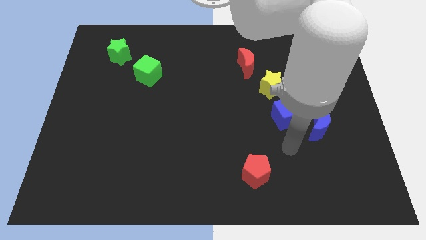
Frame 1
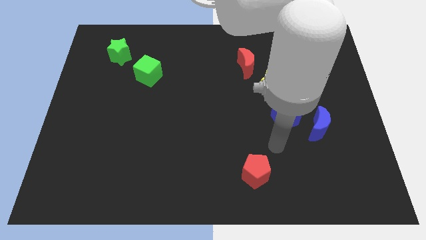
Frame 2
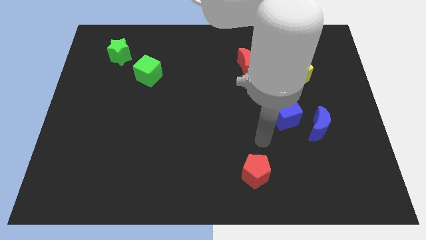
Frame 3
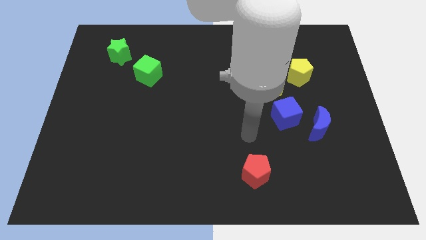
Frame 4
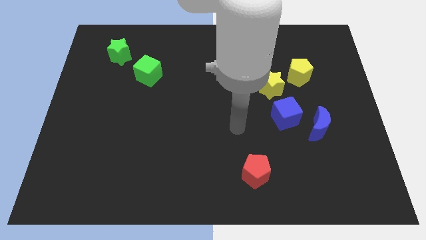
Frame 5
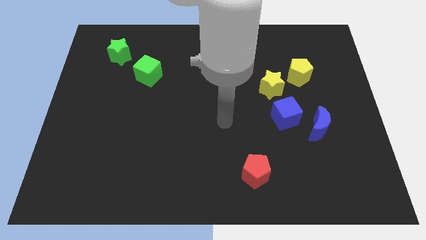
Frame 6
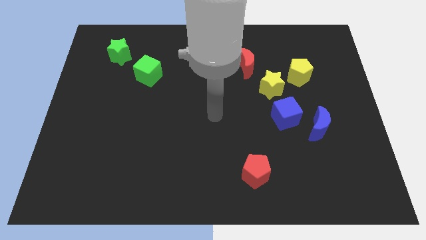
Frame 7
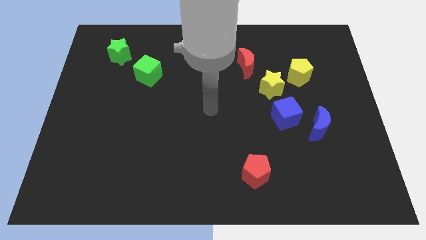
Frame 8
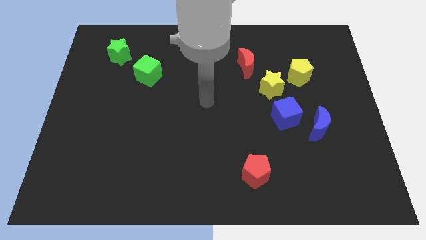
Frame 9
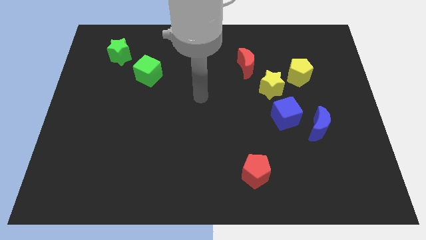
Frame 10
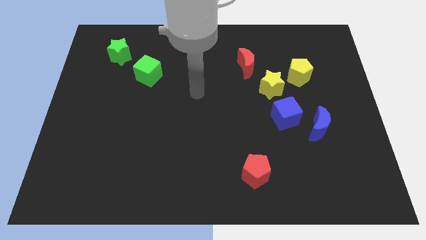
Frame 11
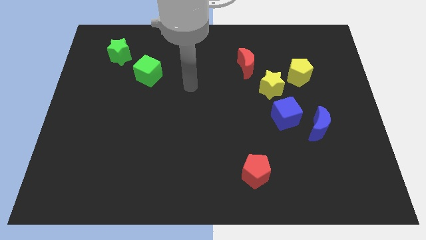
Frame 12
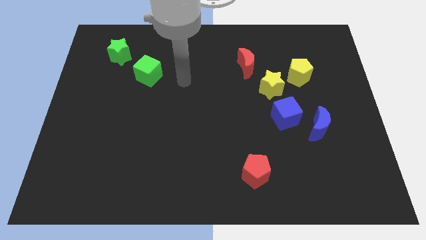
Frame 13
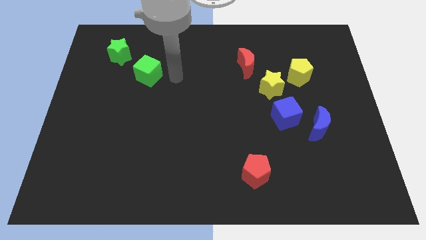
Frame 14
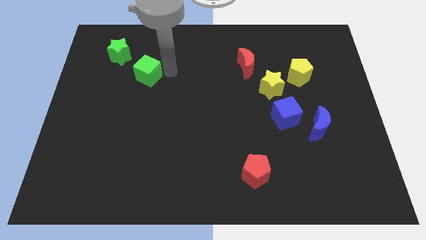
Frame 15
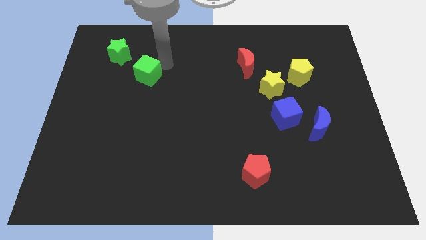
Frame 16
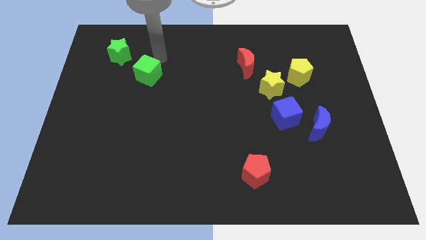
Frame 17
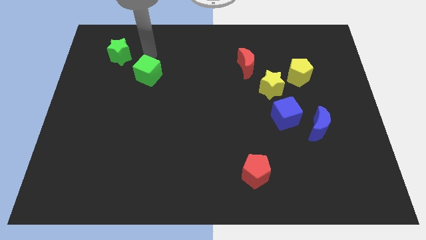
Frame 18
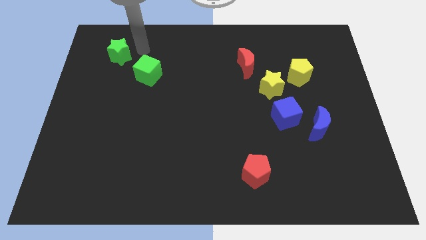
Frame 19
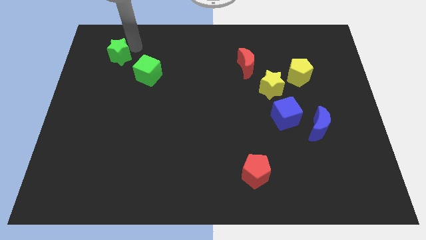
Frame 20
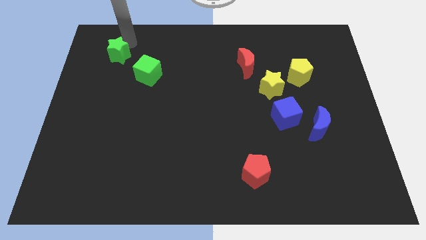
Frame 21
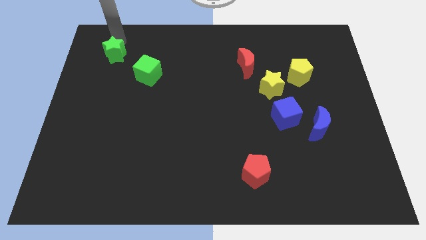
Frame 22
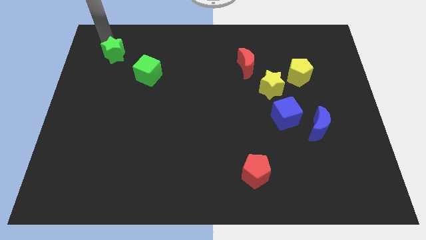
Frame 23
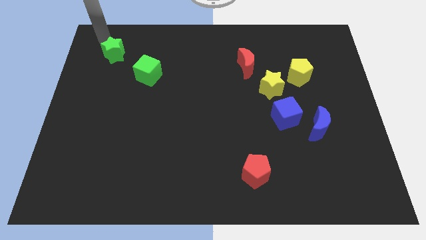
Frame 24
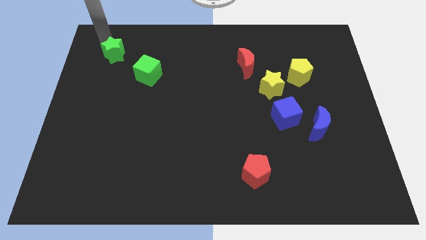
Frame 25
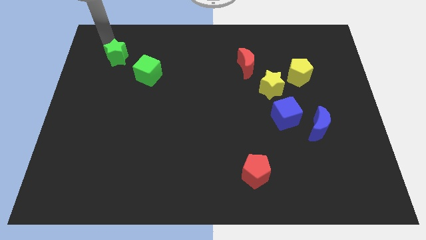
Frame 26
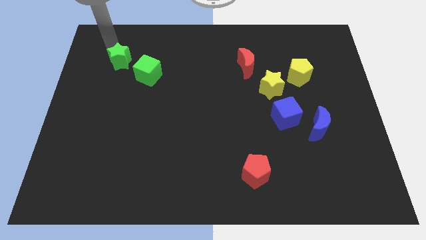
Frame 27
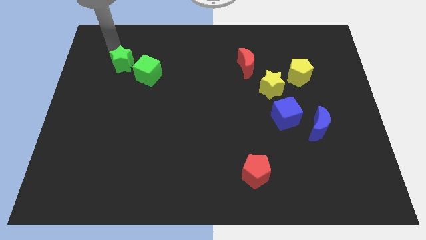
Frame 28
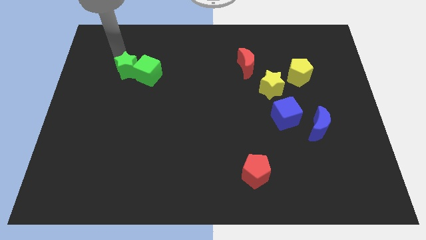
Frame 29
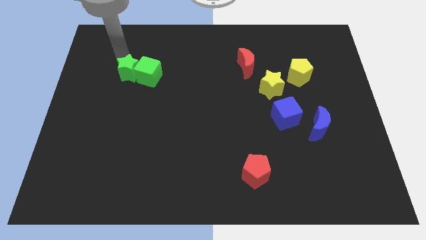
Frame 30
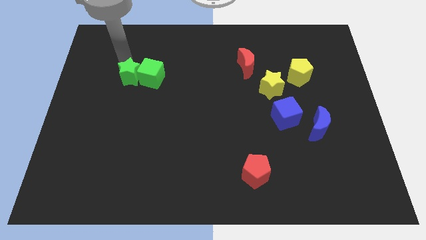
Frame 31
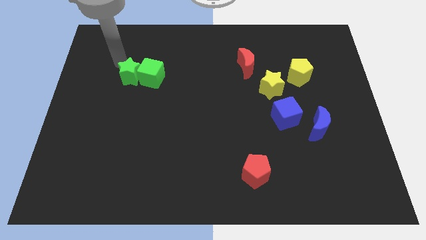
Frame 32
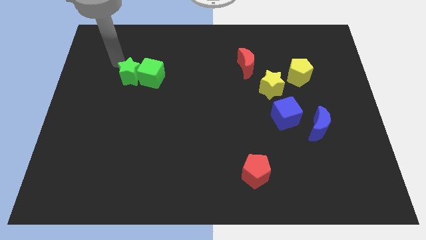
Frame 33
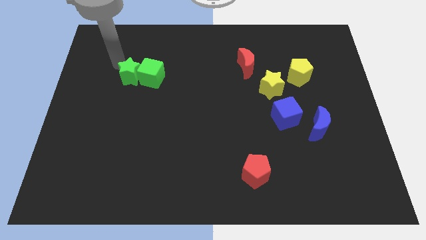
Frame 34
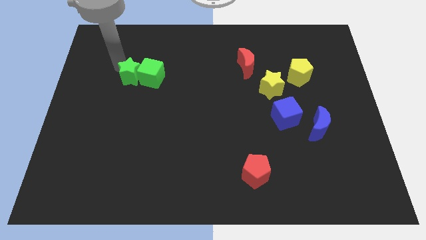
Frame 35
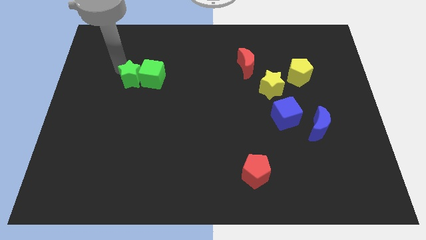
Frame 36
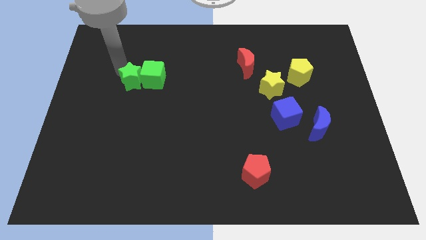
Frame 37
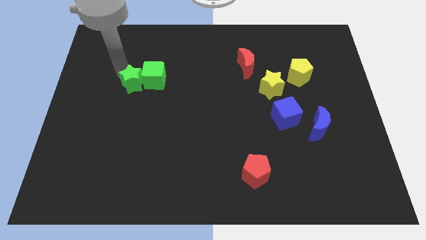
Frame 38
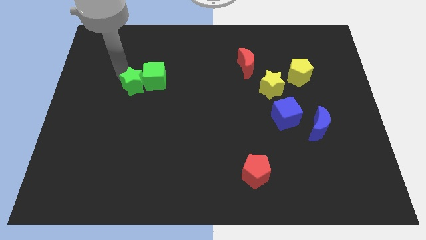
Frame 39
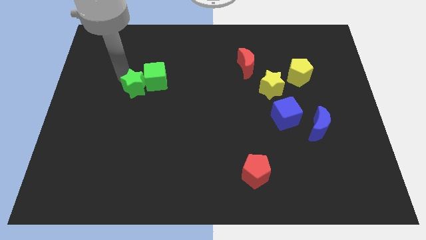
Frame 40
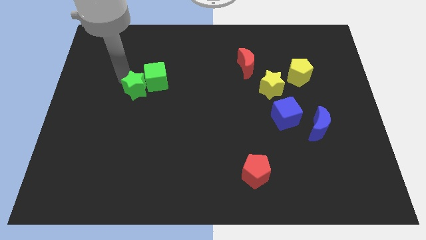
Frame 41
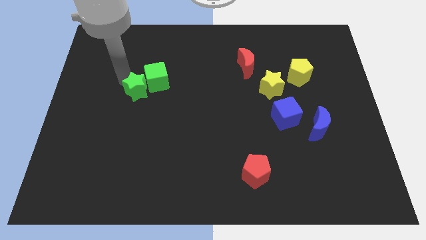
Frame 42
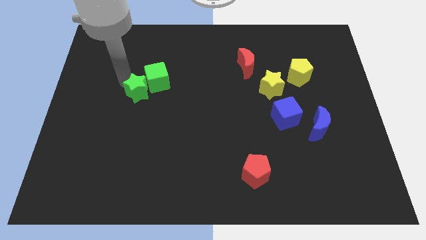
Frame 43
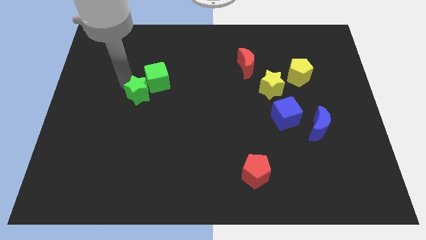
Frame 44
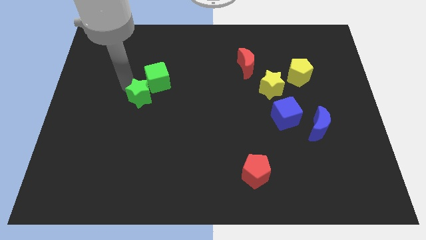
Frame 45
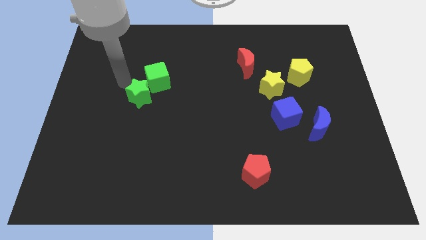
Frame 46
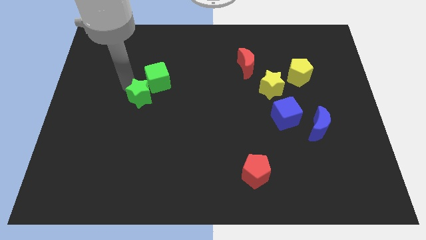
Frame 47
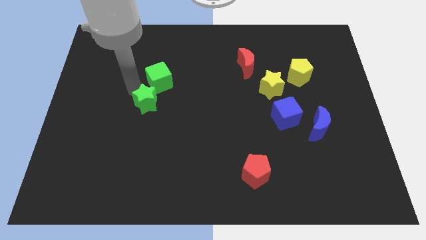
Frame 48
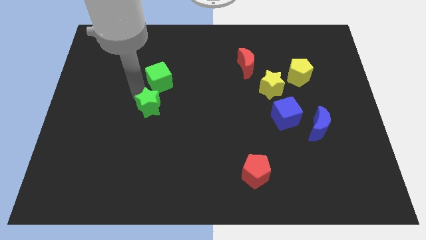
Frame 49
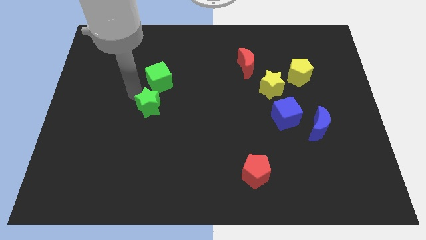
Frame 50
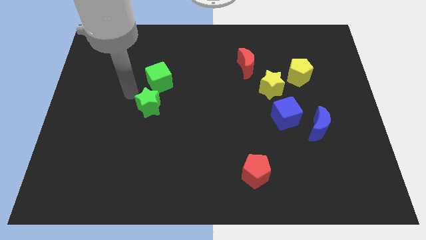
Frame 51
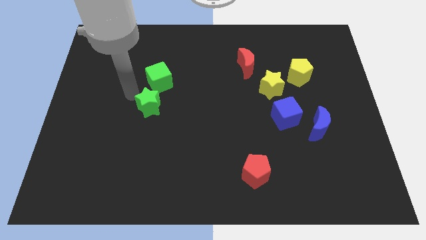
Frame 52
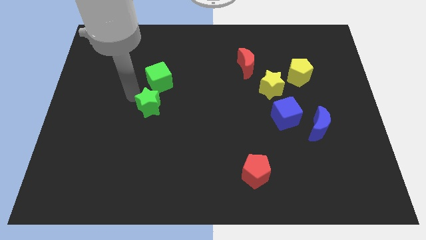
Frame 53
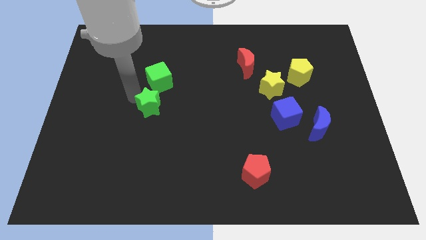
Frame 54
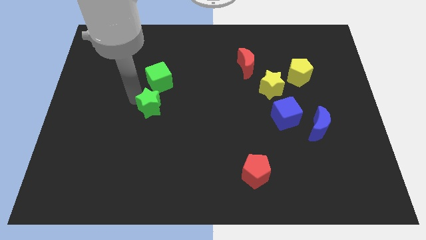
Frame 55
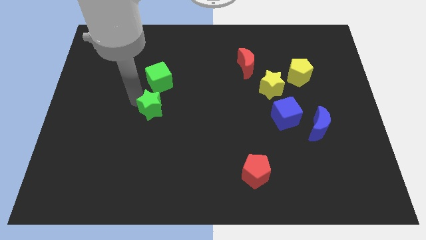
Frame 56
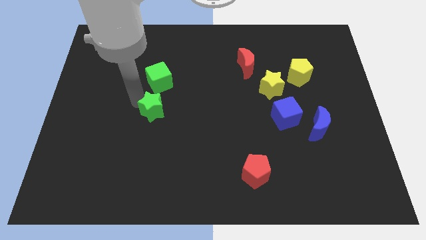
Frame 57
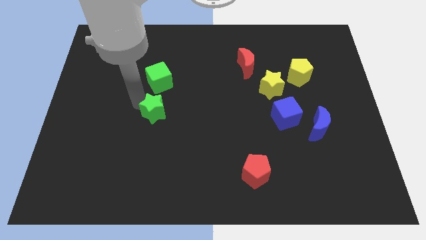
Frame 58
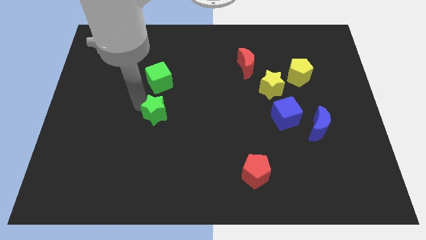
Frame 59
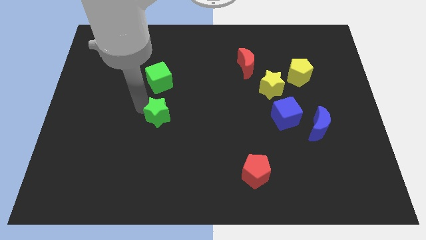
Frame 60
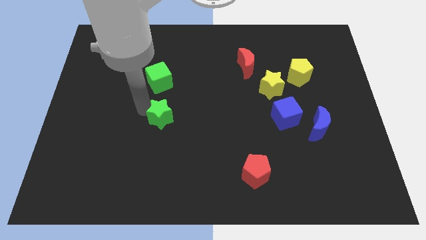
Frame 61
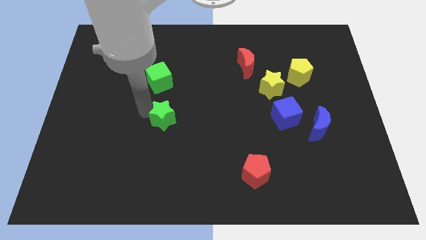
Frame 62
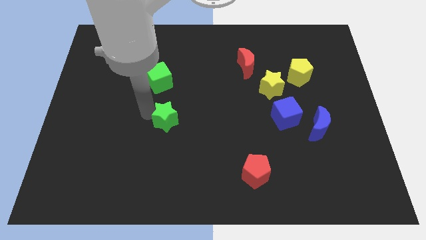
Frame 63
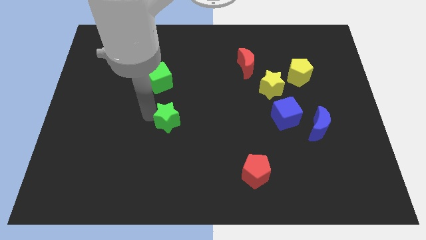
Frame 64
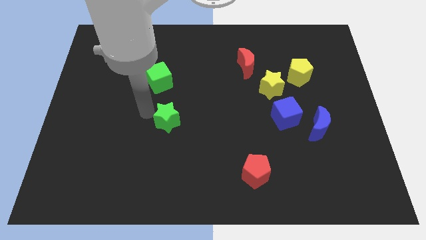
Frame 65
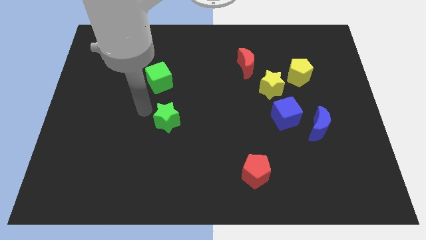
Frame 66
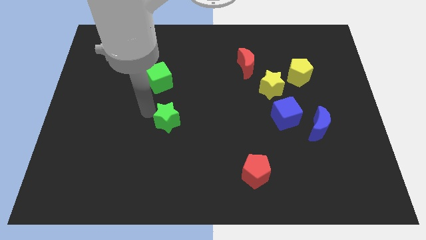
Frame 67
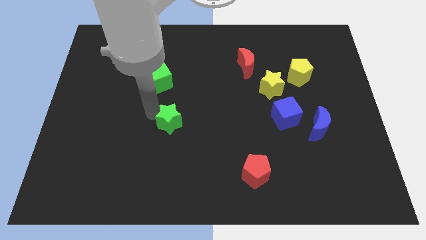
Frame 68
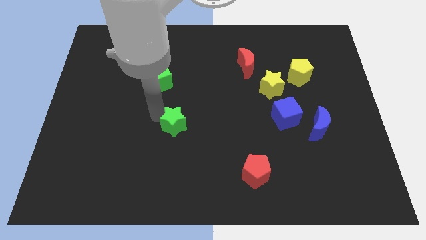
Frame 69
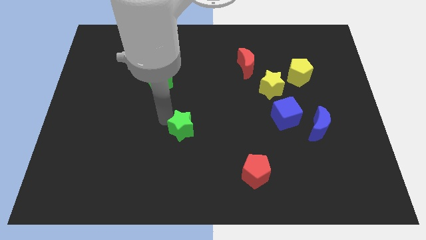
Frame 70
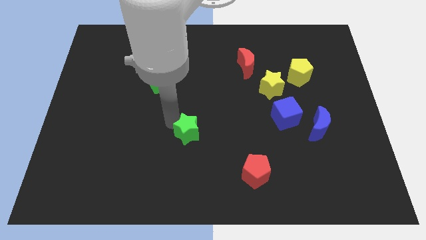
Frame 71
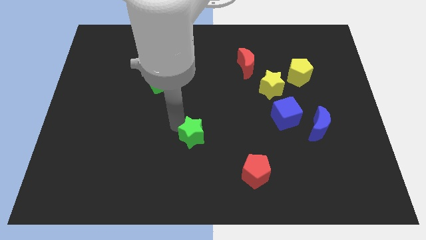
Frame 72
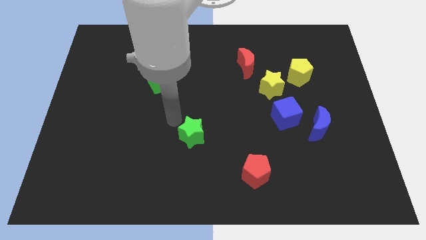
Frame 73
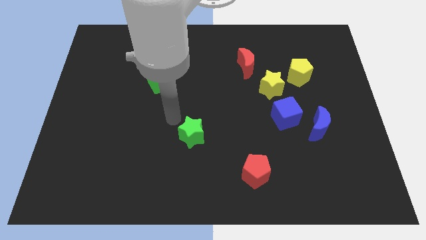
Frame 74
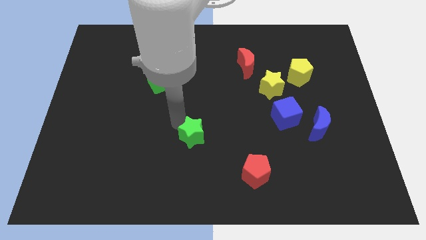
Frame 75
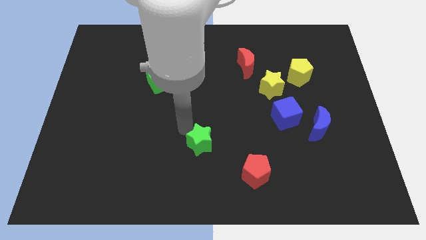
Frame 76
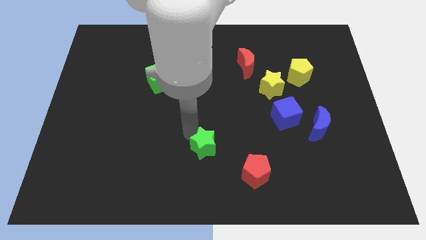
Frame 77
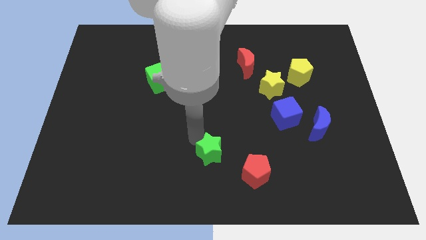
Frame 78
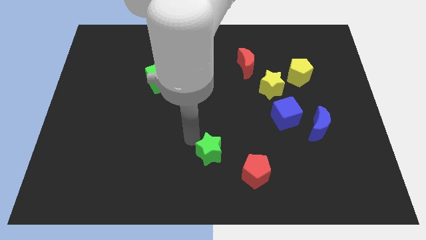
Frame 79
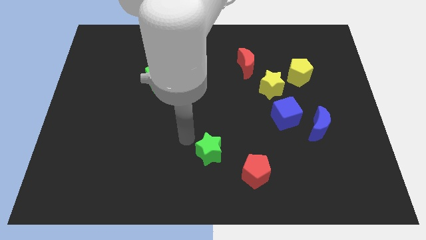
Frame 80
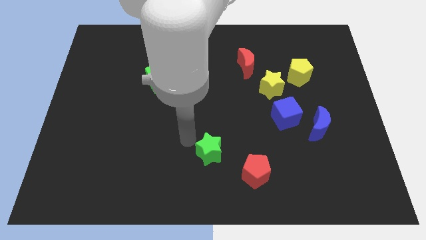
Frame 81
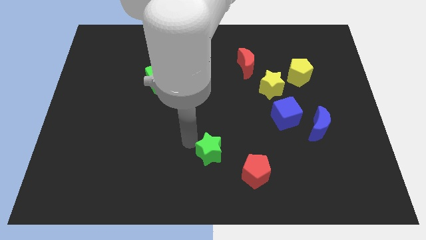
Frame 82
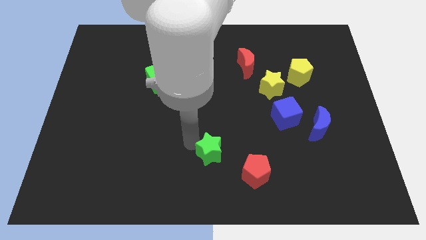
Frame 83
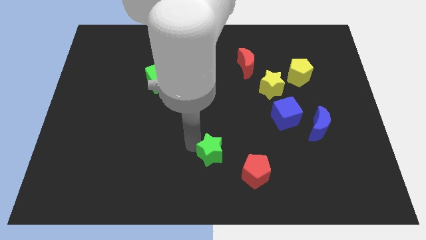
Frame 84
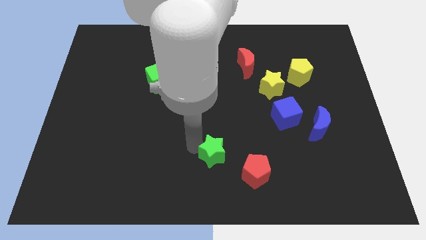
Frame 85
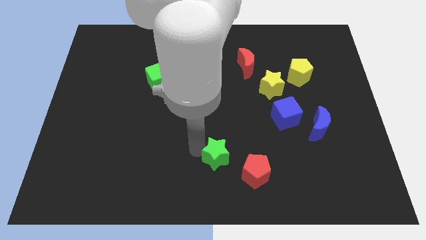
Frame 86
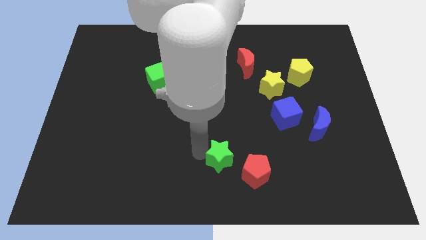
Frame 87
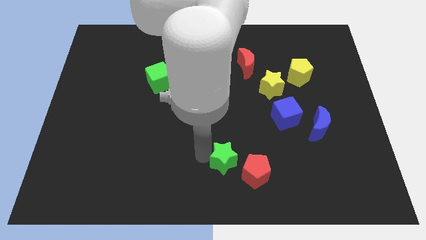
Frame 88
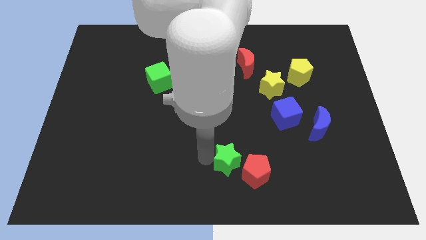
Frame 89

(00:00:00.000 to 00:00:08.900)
move the green star close to the red pentagon
